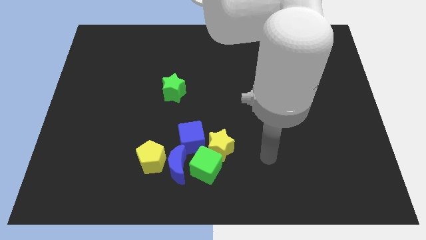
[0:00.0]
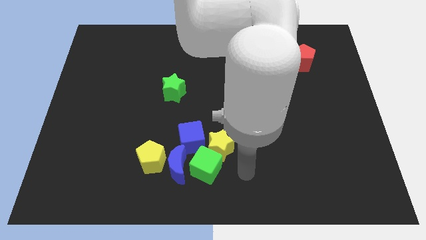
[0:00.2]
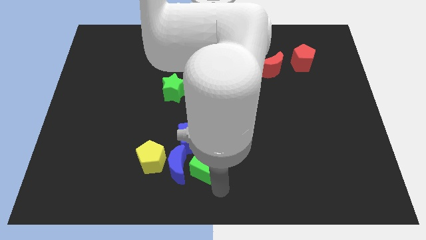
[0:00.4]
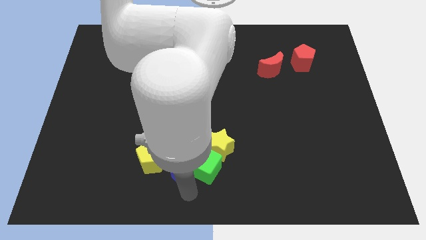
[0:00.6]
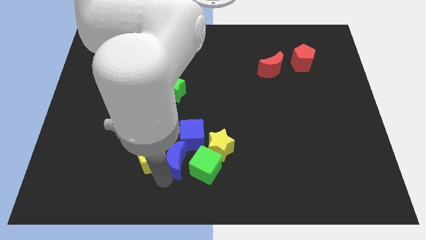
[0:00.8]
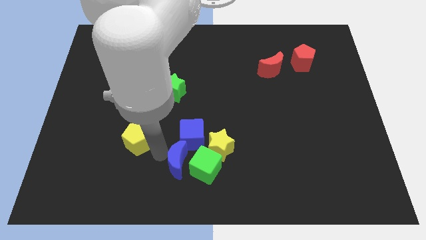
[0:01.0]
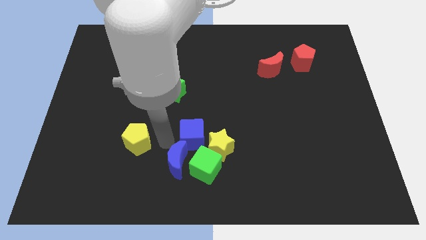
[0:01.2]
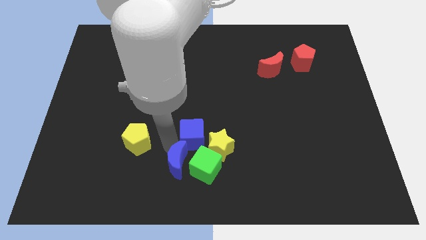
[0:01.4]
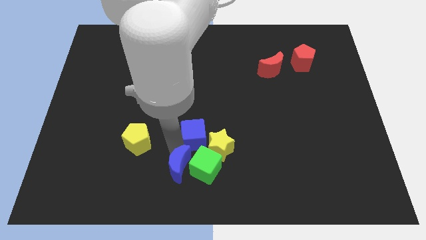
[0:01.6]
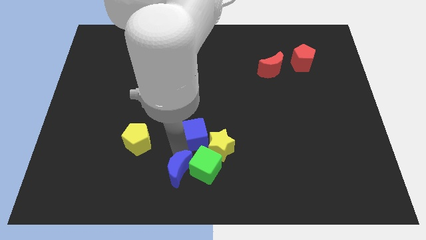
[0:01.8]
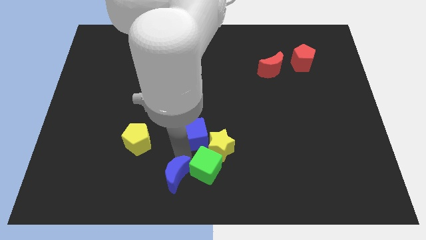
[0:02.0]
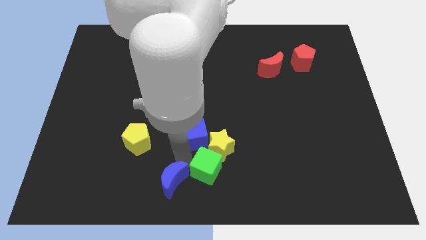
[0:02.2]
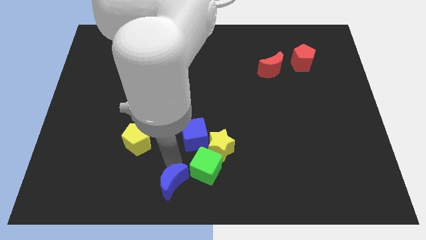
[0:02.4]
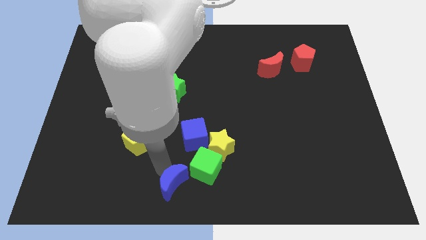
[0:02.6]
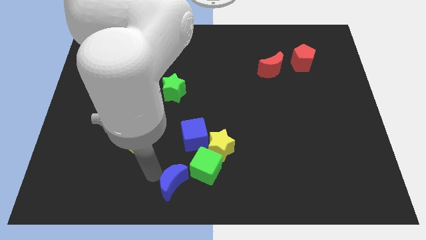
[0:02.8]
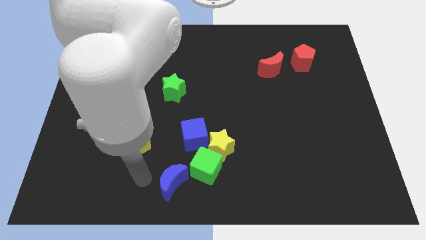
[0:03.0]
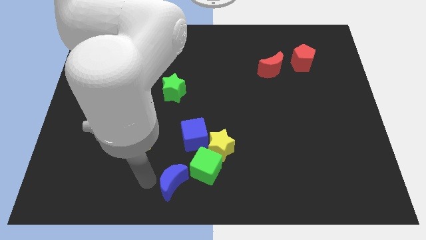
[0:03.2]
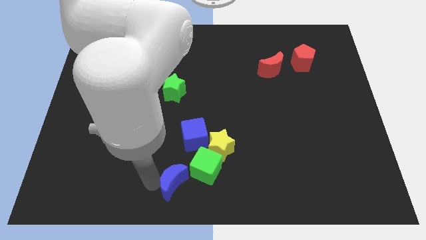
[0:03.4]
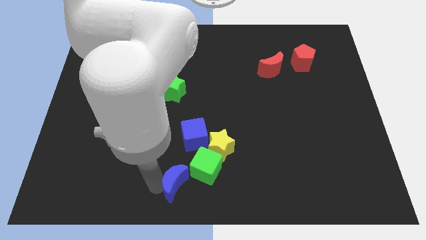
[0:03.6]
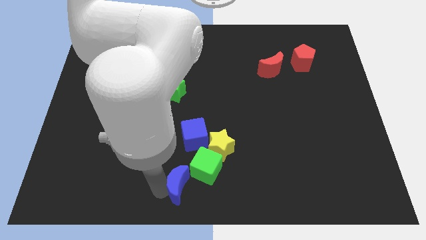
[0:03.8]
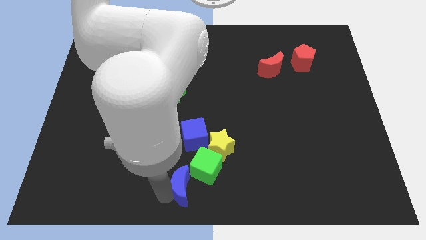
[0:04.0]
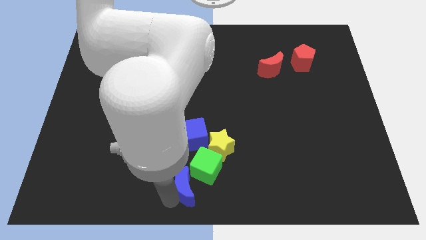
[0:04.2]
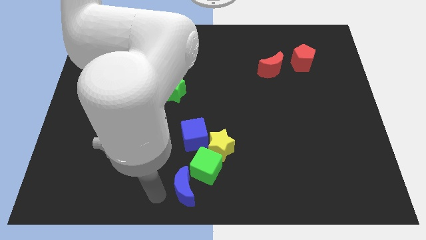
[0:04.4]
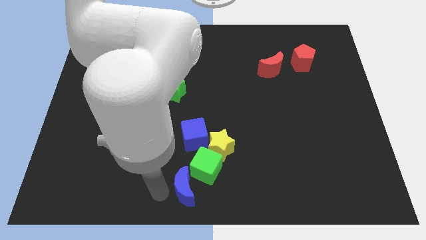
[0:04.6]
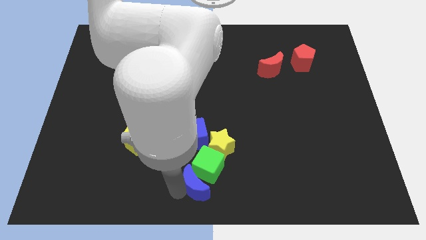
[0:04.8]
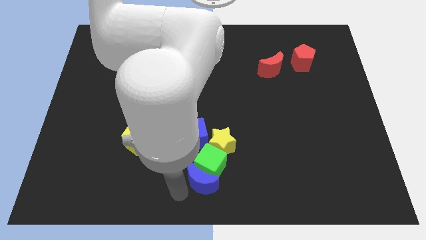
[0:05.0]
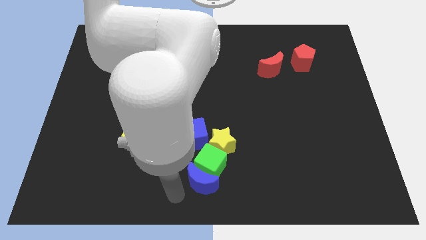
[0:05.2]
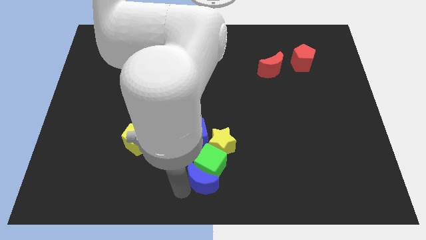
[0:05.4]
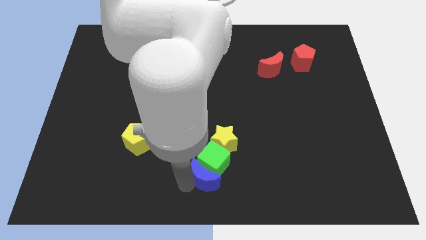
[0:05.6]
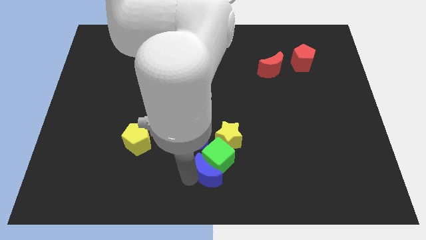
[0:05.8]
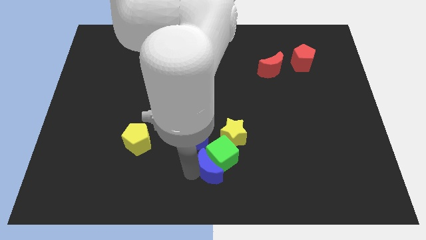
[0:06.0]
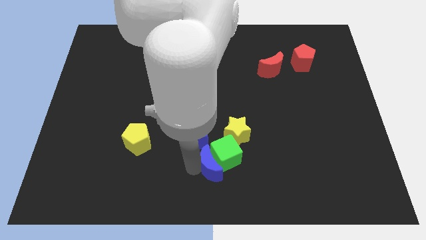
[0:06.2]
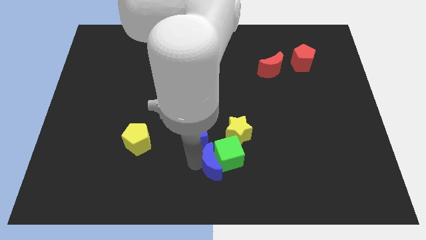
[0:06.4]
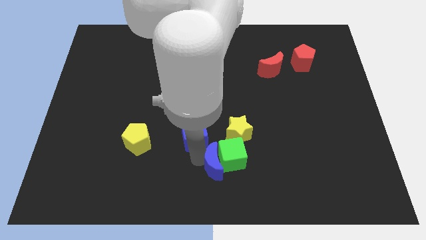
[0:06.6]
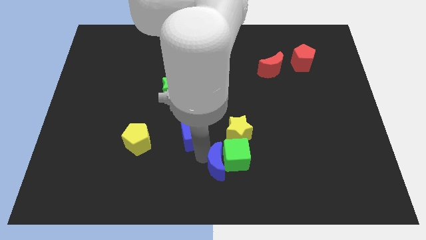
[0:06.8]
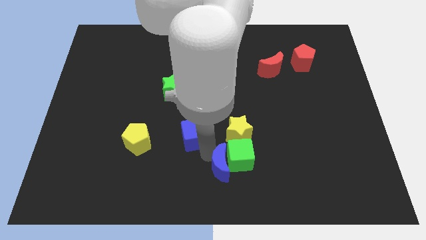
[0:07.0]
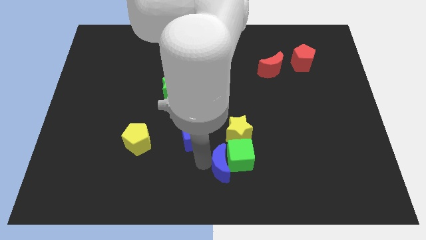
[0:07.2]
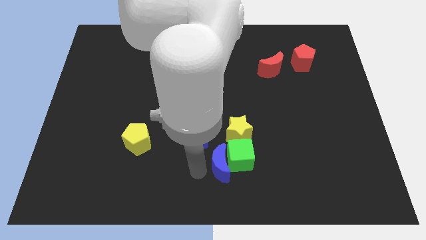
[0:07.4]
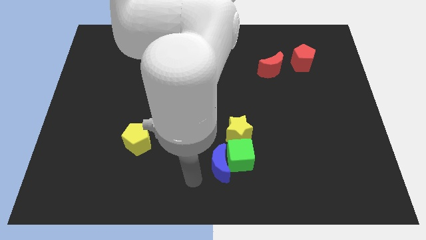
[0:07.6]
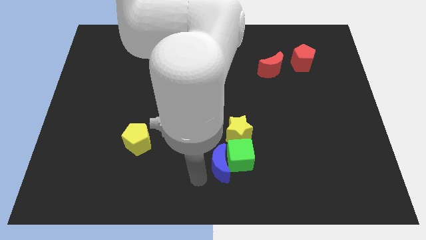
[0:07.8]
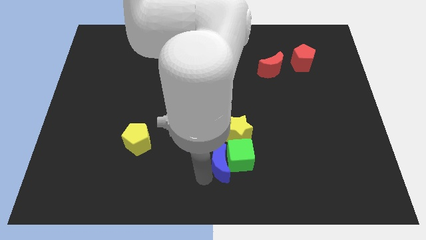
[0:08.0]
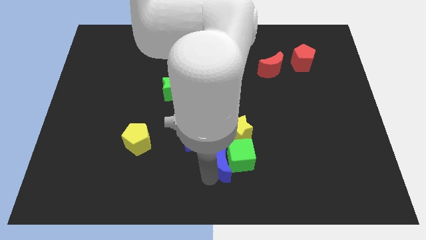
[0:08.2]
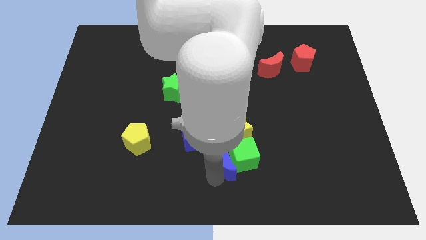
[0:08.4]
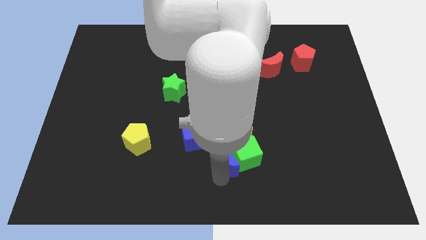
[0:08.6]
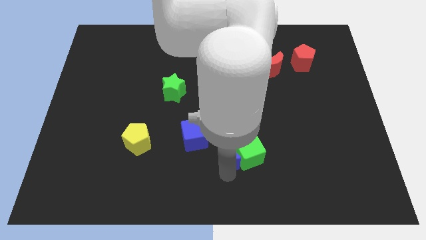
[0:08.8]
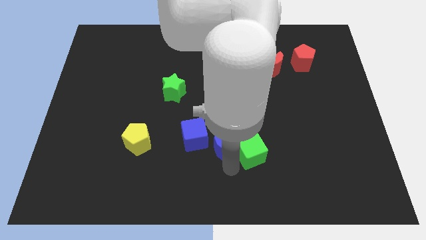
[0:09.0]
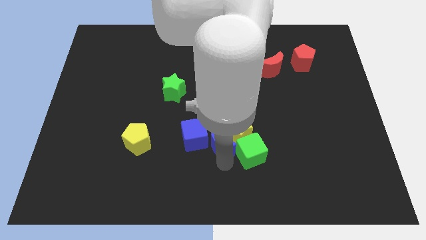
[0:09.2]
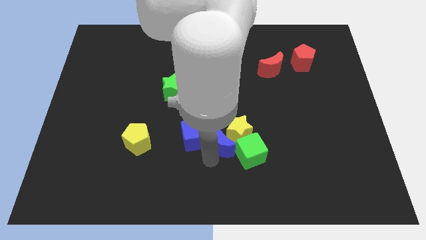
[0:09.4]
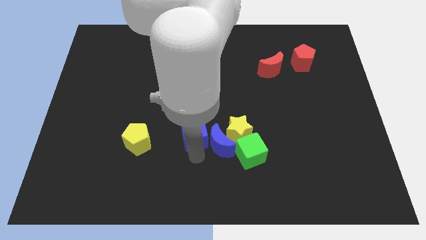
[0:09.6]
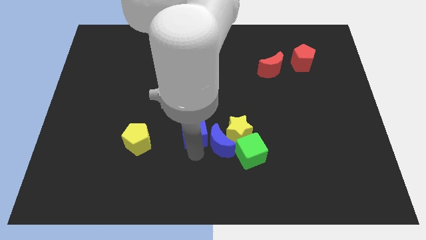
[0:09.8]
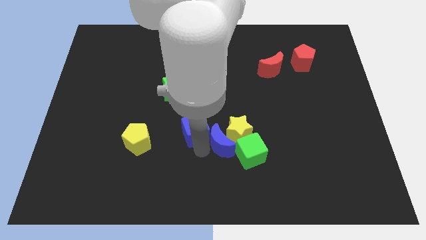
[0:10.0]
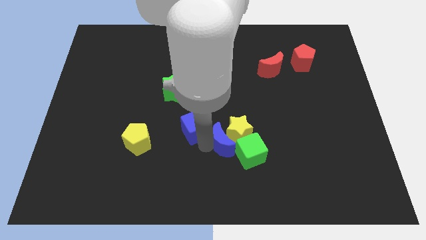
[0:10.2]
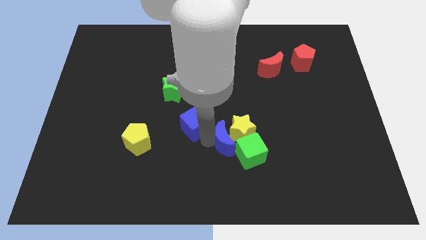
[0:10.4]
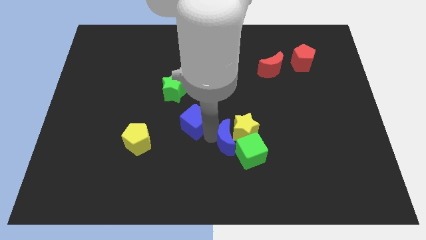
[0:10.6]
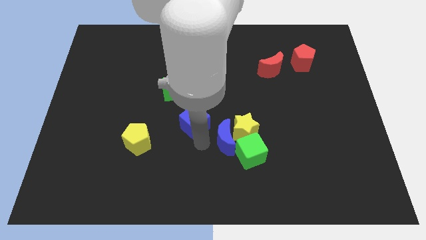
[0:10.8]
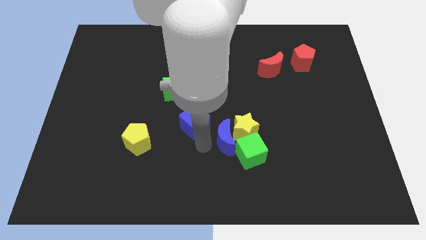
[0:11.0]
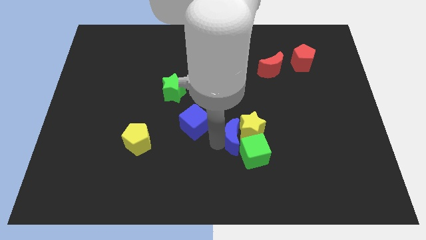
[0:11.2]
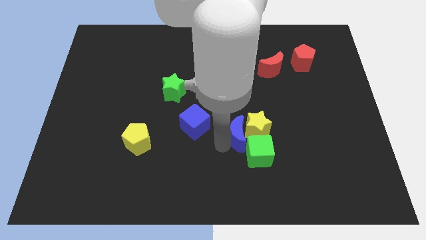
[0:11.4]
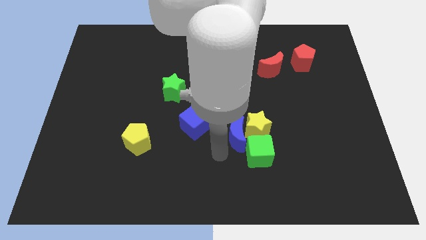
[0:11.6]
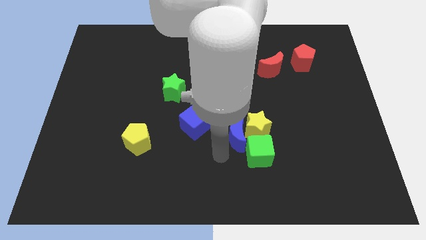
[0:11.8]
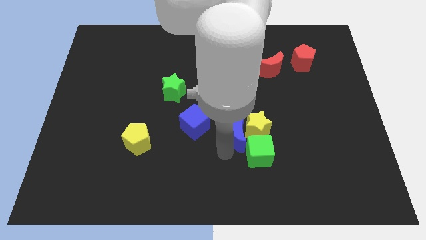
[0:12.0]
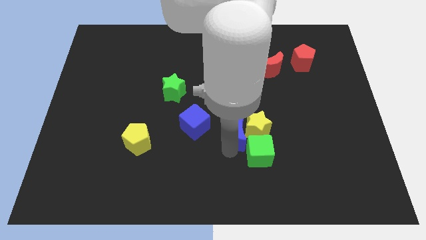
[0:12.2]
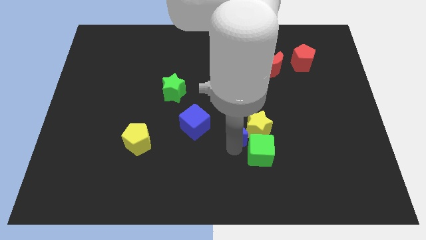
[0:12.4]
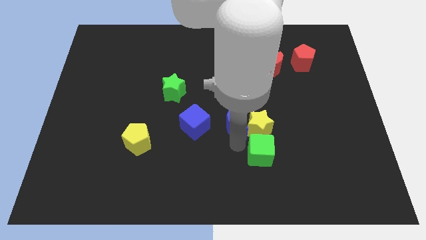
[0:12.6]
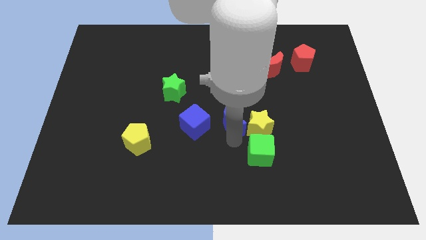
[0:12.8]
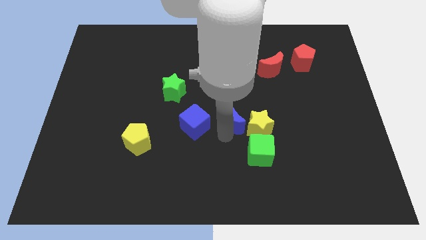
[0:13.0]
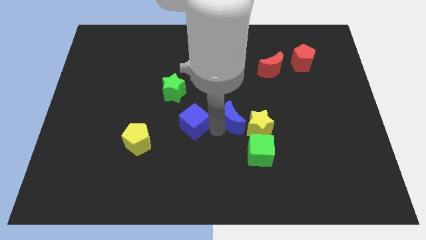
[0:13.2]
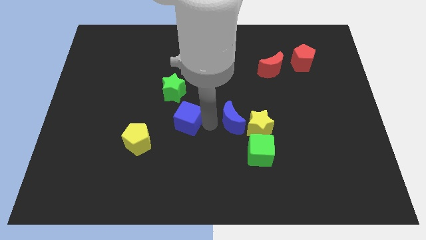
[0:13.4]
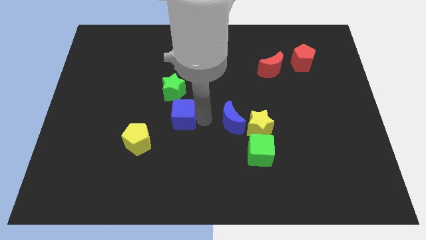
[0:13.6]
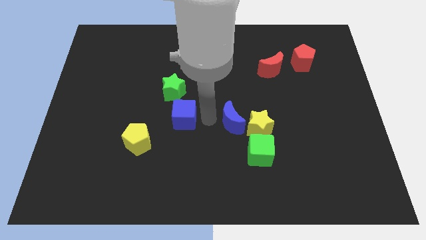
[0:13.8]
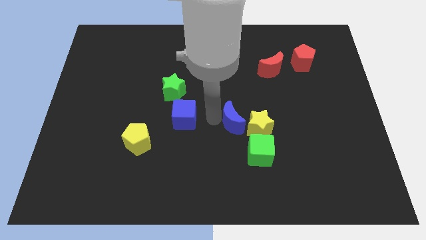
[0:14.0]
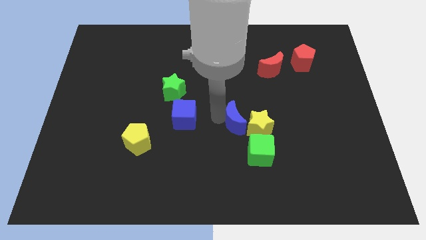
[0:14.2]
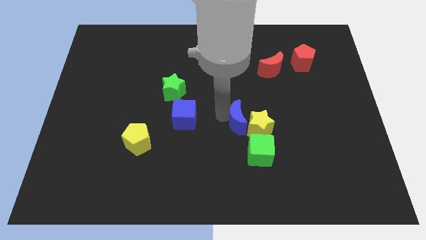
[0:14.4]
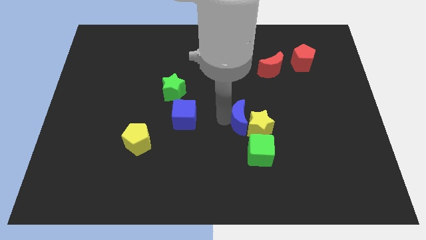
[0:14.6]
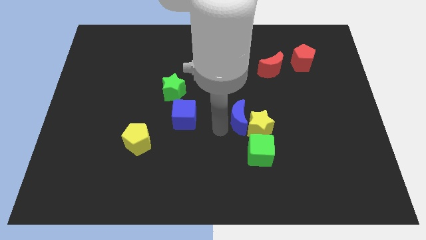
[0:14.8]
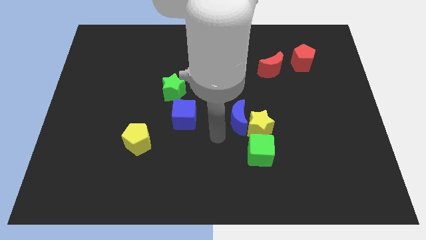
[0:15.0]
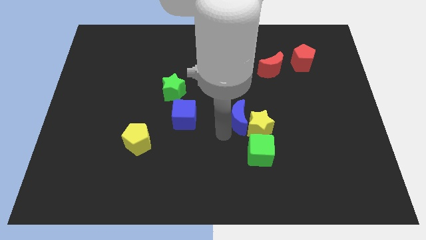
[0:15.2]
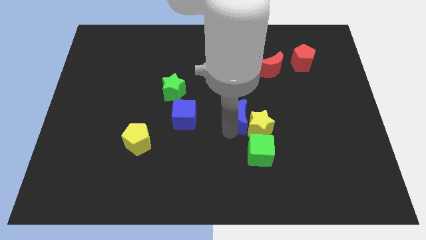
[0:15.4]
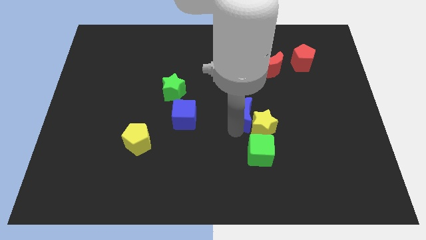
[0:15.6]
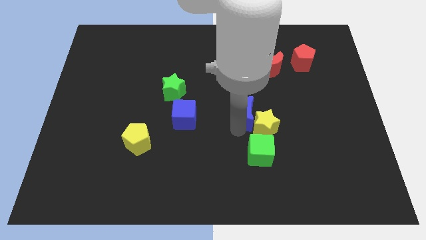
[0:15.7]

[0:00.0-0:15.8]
push the blue moon up and right diagonally

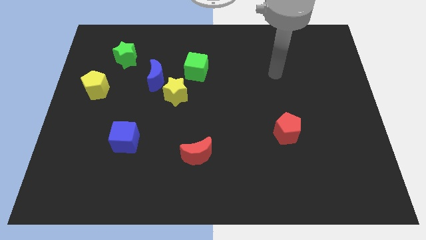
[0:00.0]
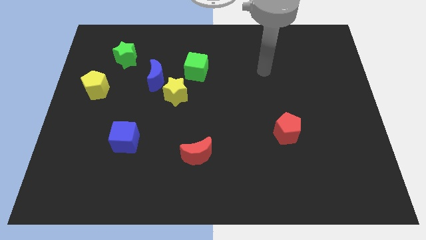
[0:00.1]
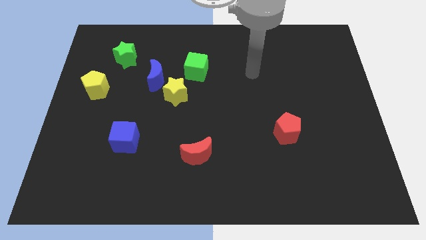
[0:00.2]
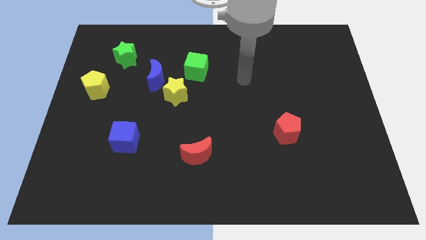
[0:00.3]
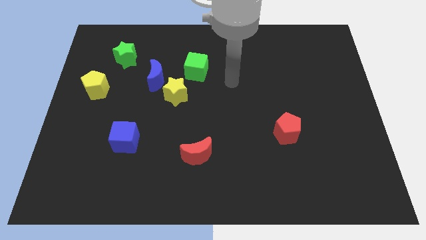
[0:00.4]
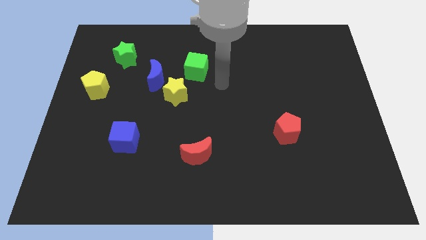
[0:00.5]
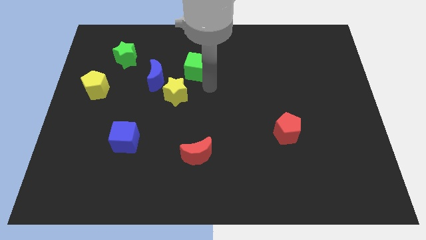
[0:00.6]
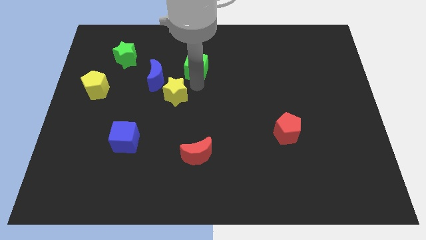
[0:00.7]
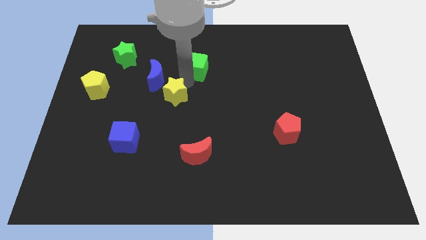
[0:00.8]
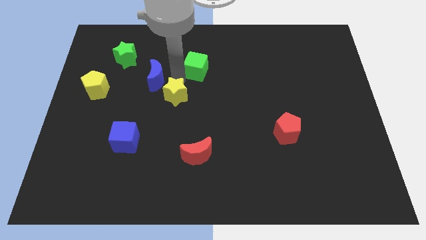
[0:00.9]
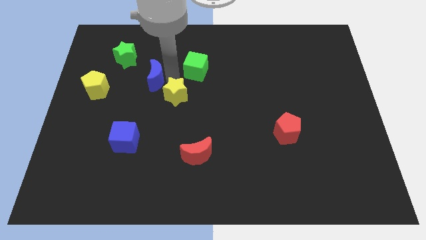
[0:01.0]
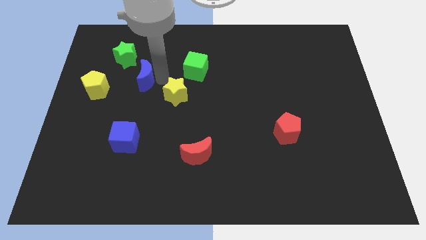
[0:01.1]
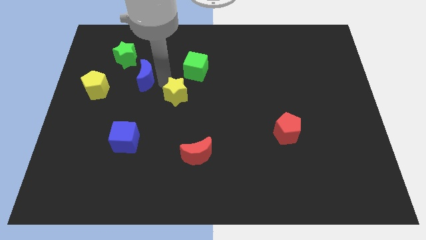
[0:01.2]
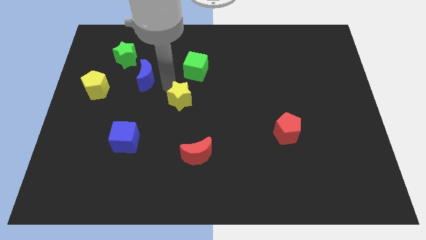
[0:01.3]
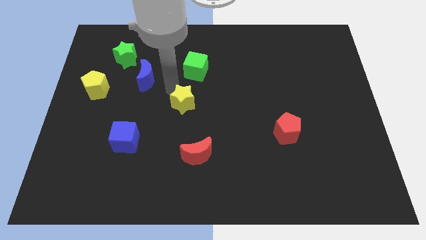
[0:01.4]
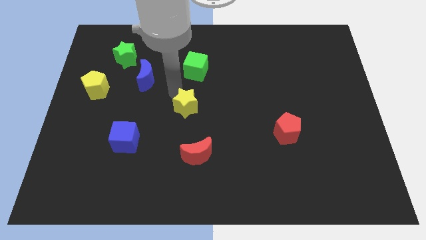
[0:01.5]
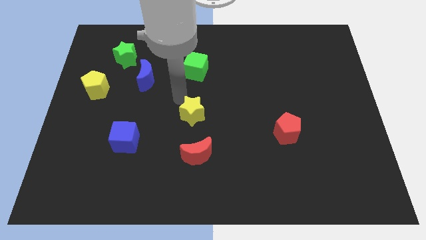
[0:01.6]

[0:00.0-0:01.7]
push the yellow star downwards and to the right somewhat
